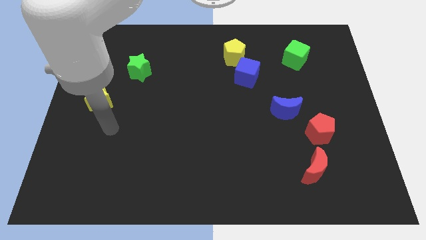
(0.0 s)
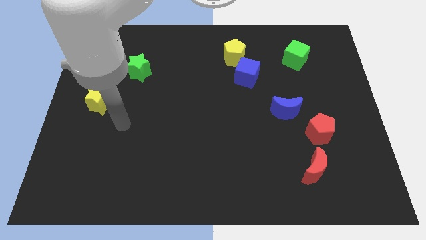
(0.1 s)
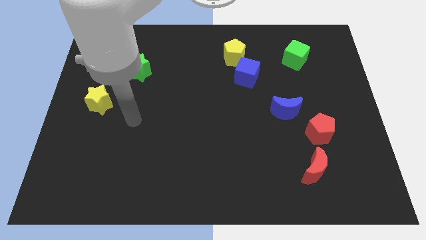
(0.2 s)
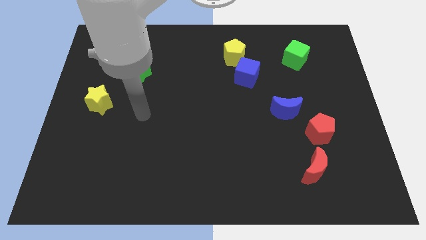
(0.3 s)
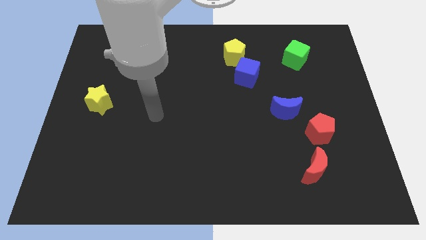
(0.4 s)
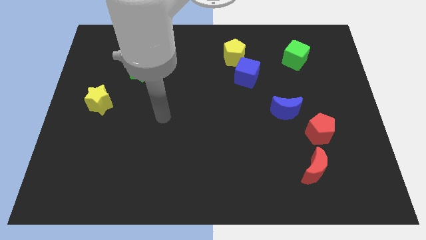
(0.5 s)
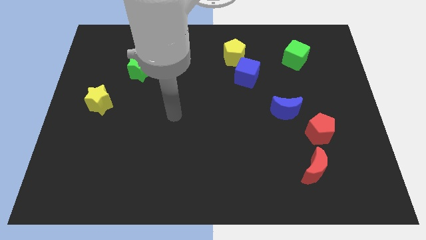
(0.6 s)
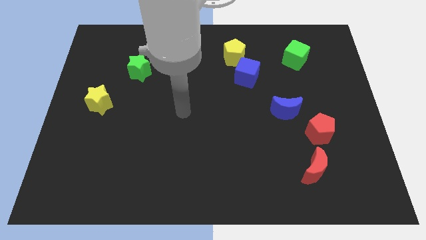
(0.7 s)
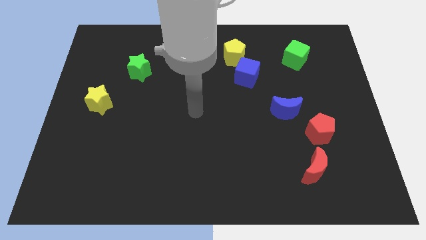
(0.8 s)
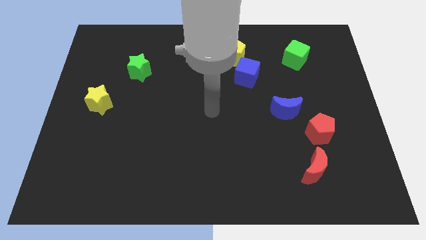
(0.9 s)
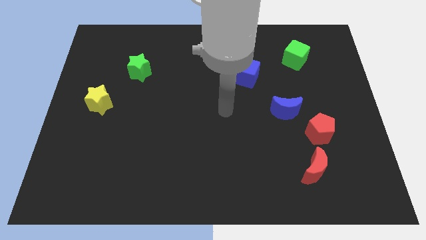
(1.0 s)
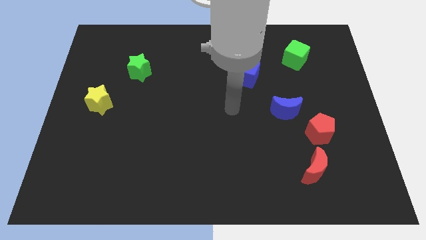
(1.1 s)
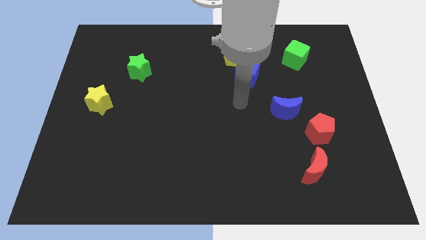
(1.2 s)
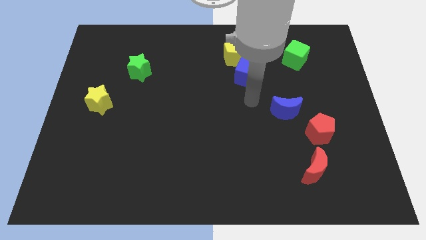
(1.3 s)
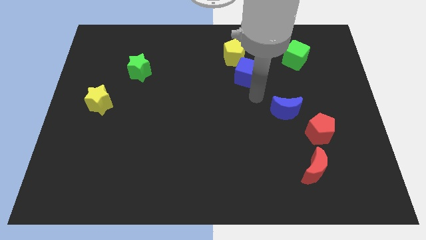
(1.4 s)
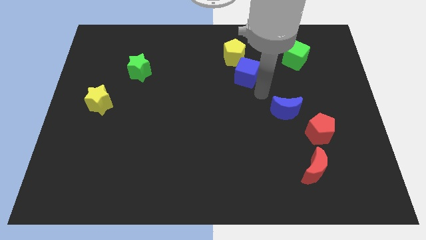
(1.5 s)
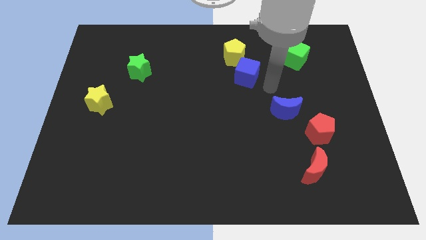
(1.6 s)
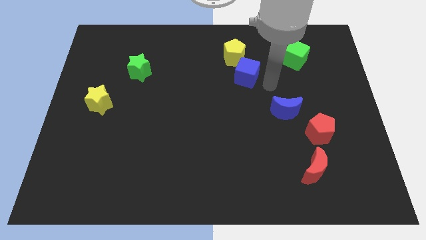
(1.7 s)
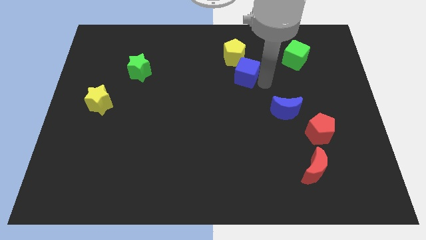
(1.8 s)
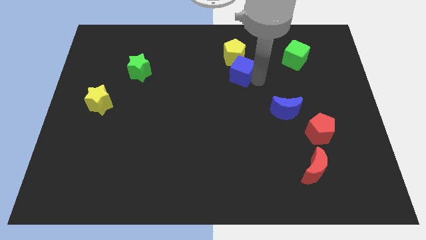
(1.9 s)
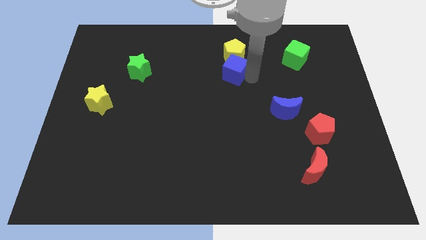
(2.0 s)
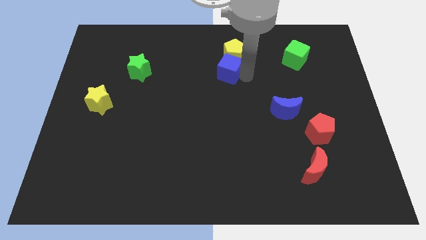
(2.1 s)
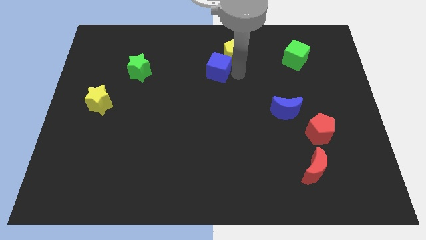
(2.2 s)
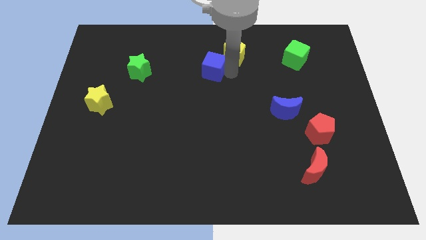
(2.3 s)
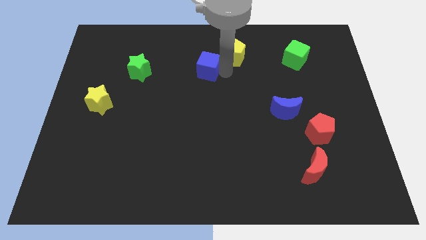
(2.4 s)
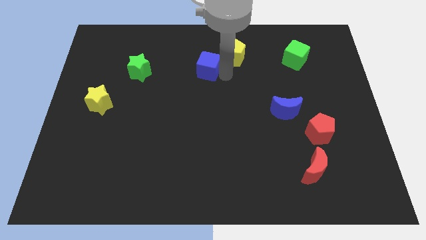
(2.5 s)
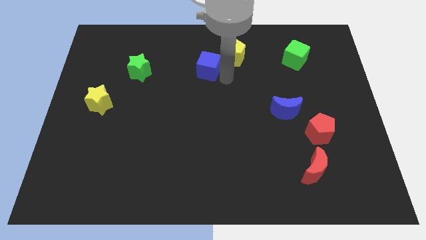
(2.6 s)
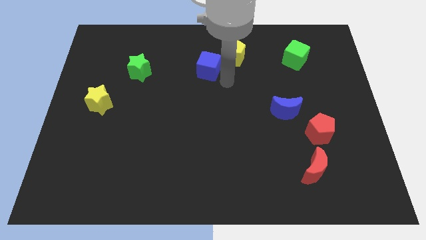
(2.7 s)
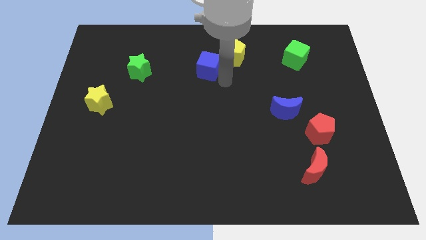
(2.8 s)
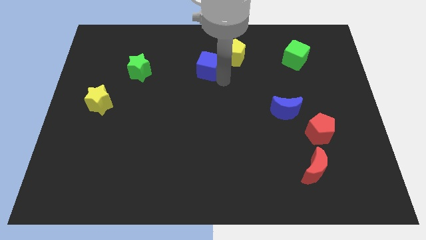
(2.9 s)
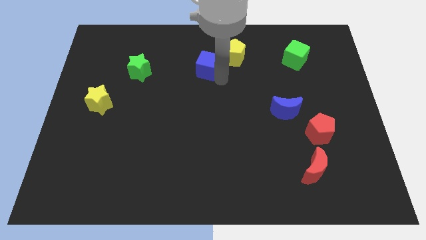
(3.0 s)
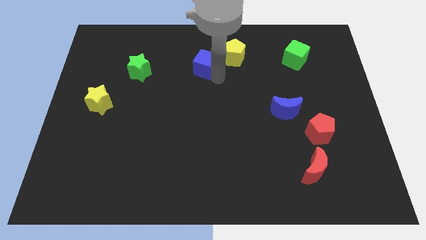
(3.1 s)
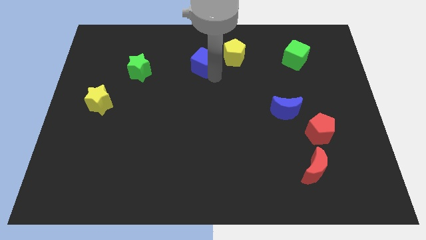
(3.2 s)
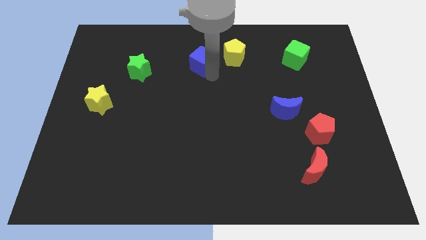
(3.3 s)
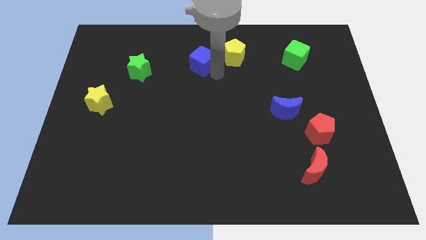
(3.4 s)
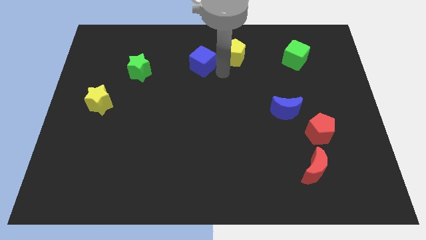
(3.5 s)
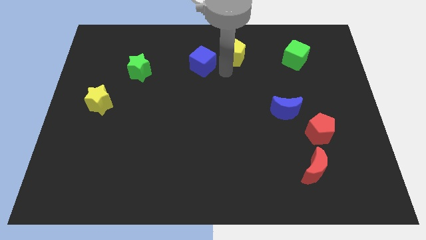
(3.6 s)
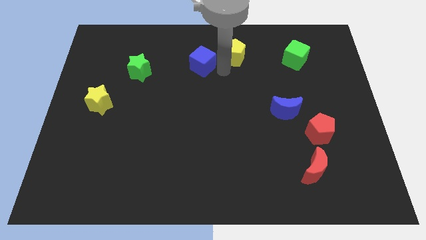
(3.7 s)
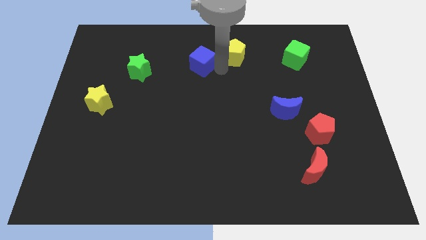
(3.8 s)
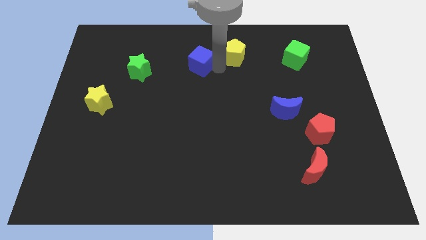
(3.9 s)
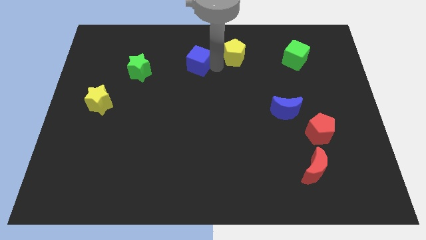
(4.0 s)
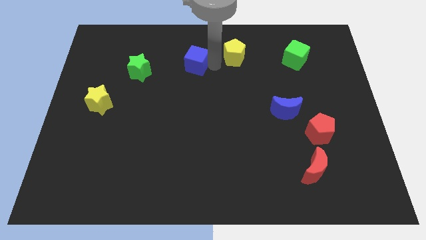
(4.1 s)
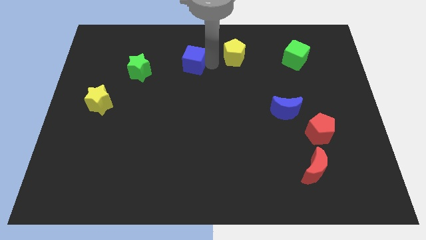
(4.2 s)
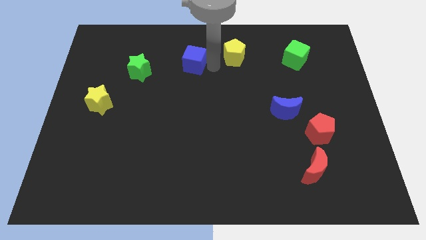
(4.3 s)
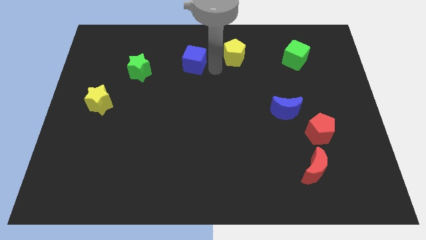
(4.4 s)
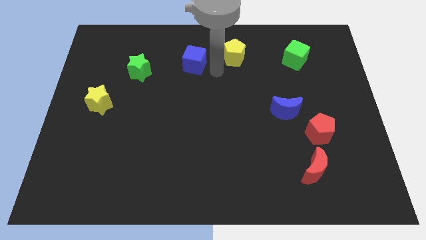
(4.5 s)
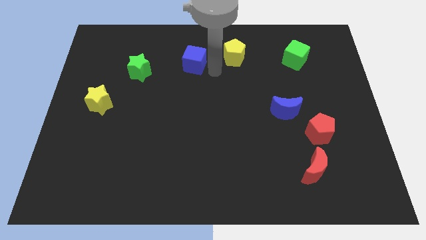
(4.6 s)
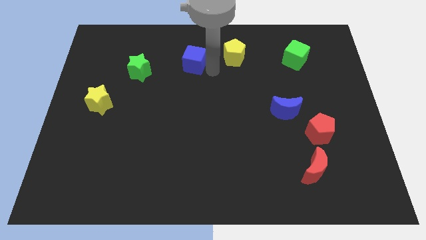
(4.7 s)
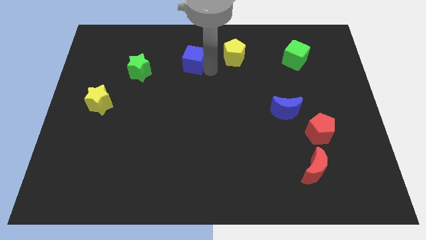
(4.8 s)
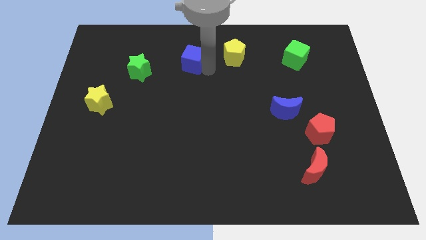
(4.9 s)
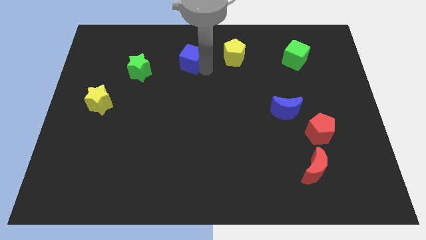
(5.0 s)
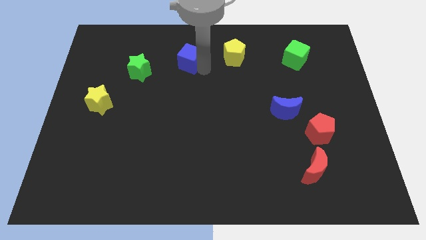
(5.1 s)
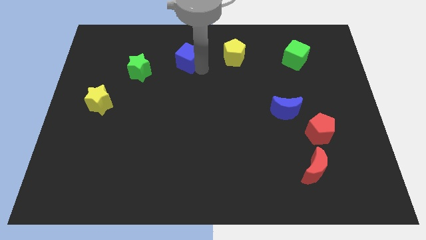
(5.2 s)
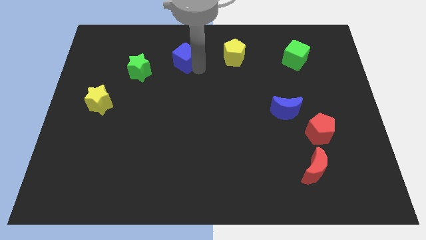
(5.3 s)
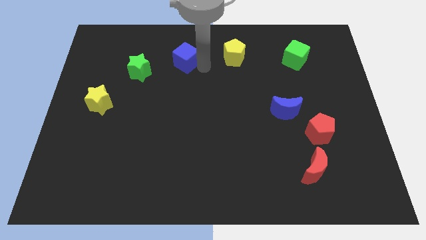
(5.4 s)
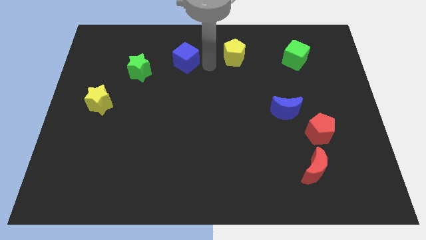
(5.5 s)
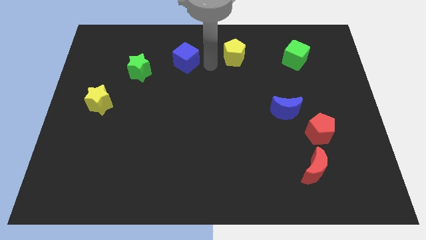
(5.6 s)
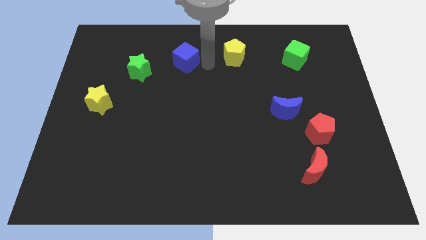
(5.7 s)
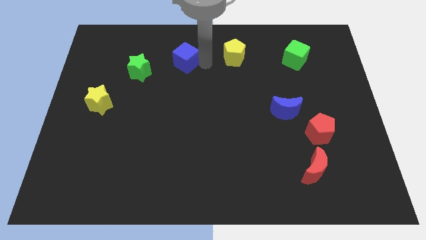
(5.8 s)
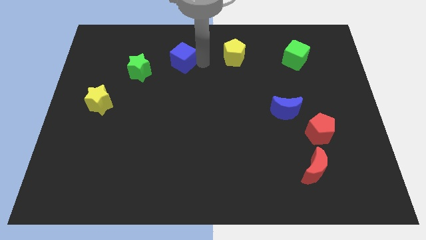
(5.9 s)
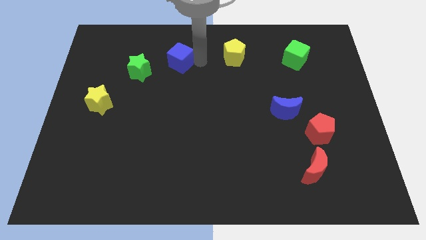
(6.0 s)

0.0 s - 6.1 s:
slide the blue cube diagonally up and to the right of the green star
